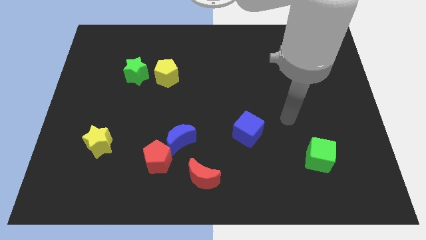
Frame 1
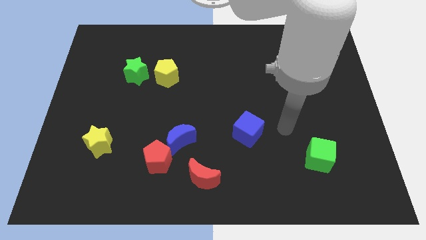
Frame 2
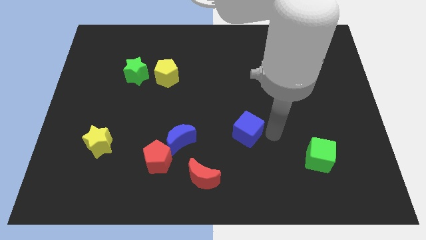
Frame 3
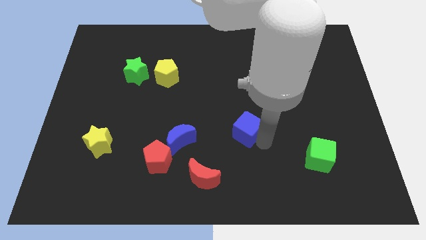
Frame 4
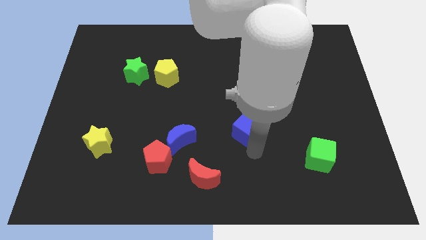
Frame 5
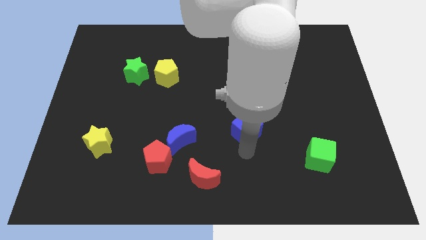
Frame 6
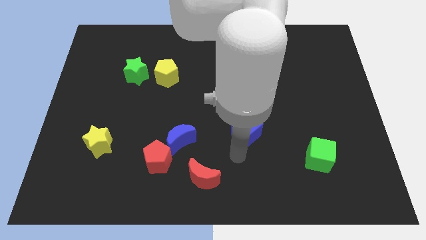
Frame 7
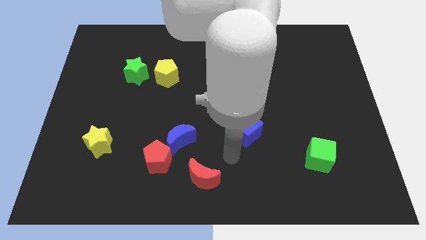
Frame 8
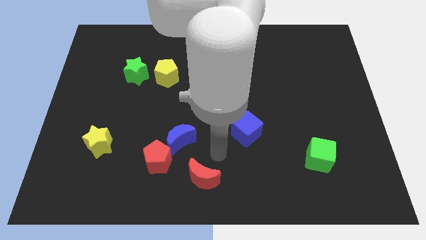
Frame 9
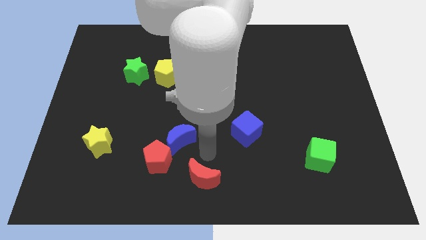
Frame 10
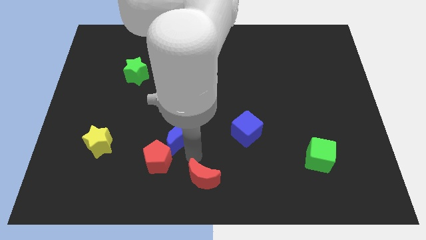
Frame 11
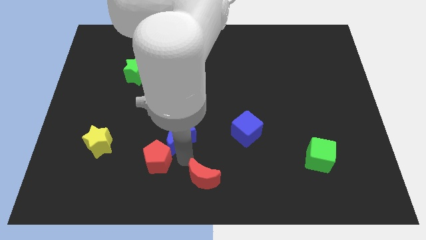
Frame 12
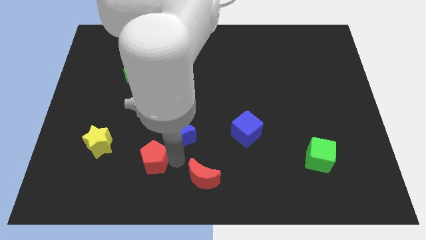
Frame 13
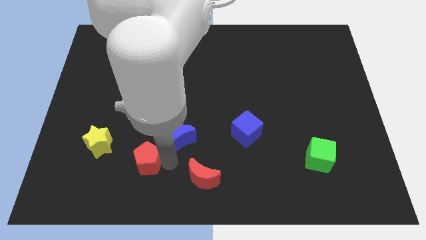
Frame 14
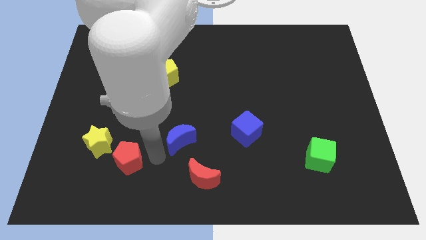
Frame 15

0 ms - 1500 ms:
pull the blue moon apart from the red pentagon

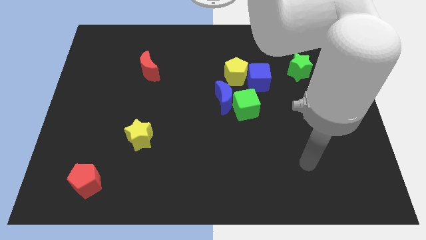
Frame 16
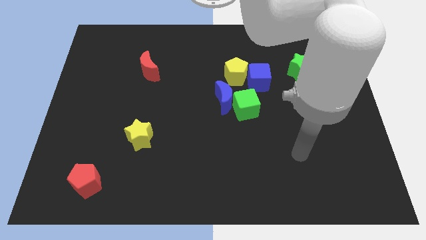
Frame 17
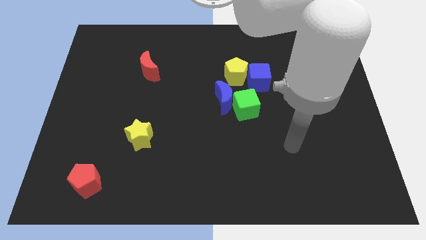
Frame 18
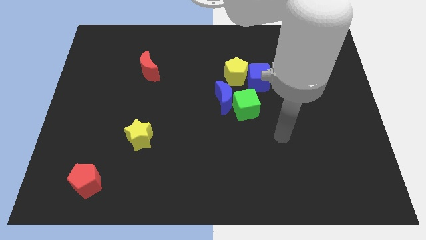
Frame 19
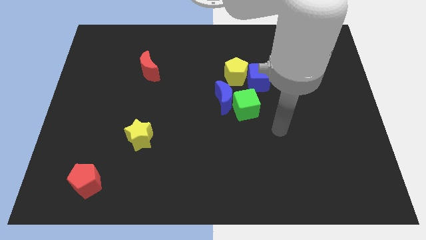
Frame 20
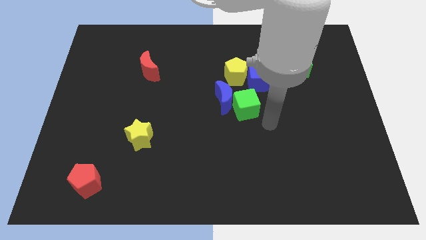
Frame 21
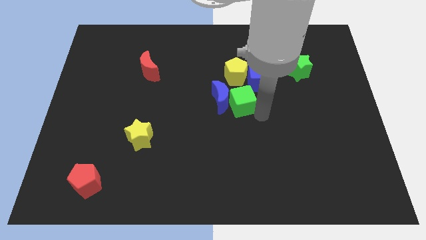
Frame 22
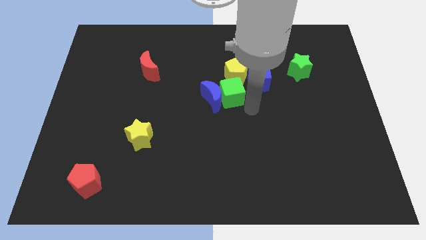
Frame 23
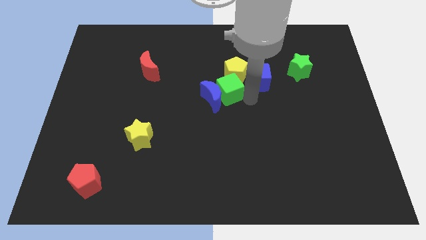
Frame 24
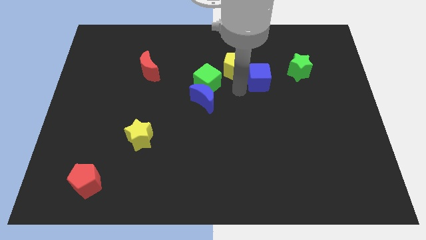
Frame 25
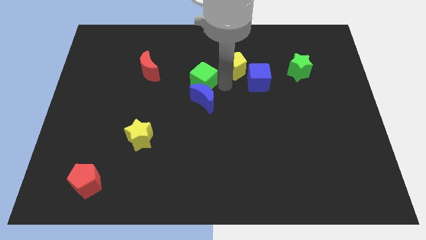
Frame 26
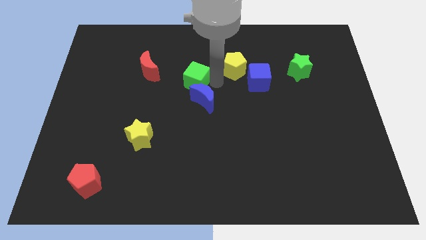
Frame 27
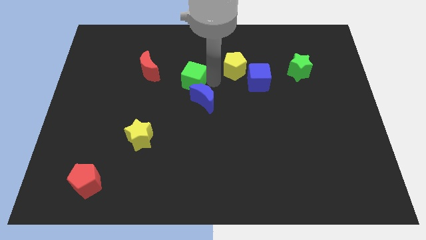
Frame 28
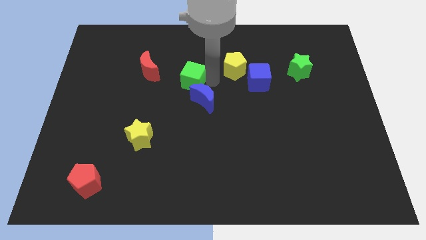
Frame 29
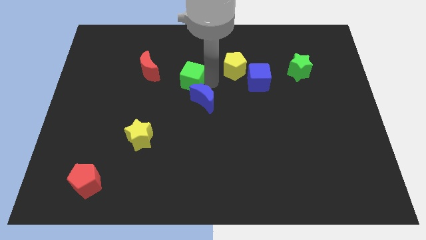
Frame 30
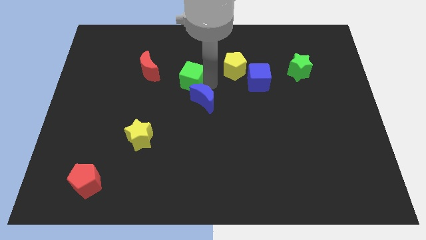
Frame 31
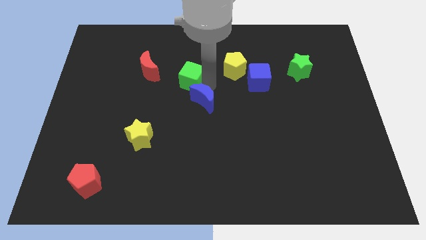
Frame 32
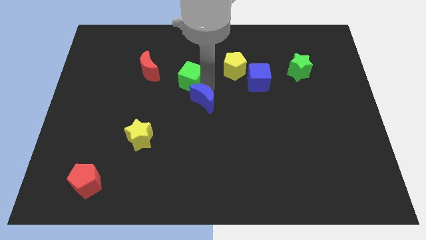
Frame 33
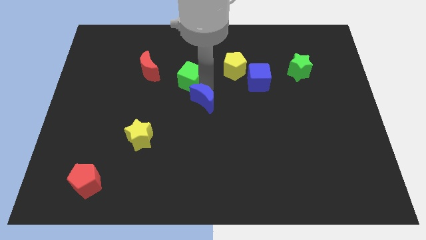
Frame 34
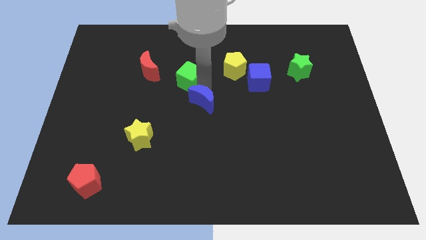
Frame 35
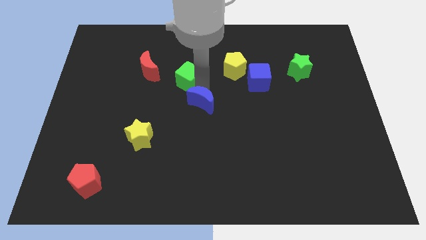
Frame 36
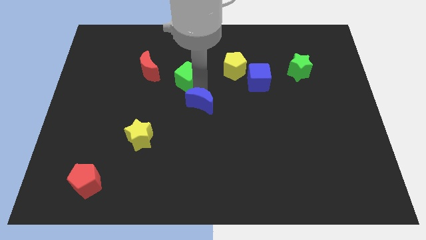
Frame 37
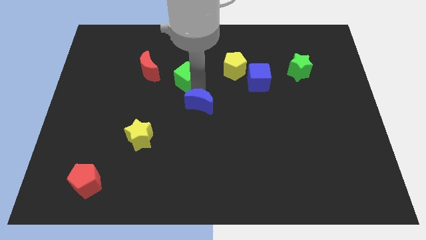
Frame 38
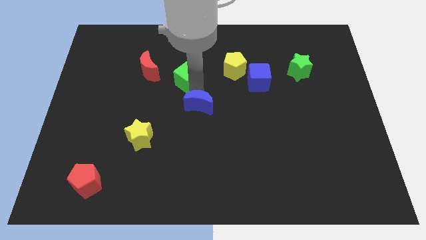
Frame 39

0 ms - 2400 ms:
pull the blue moon apart from the green cube and yellow pentagon

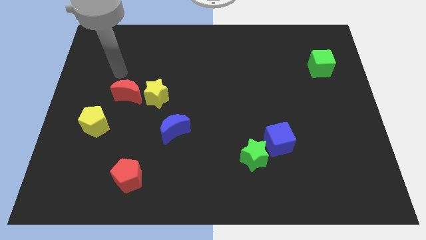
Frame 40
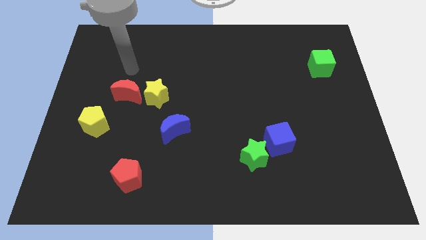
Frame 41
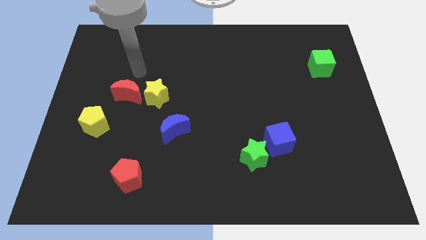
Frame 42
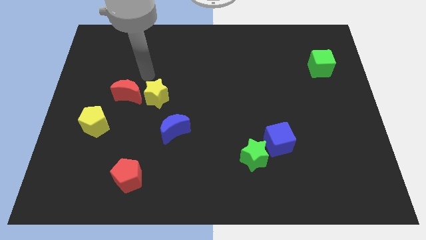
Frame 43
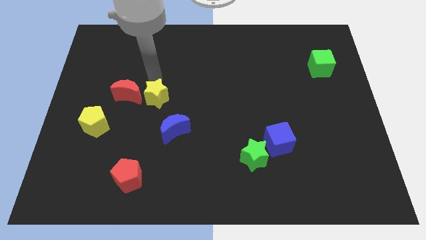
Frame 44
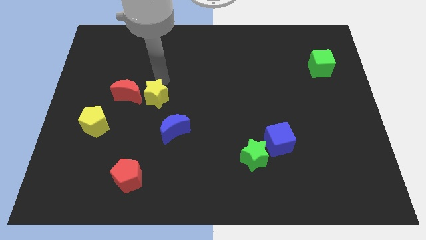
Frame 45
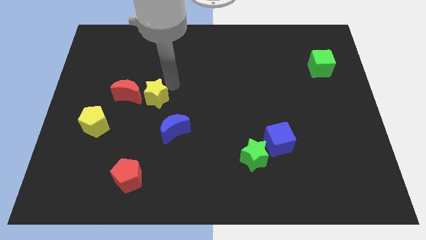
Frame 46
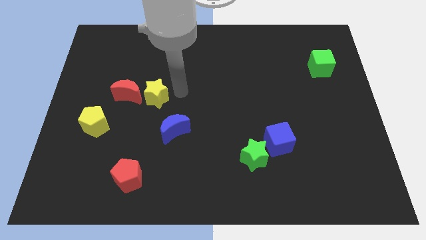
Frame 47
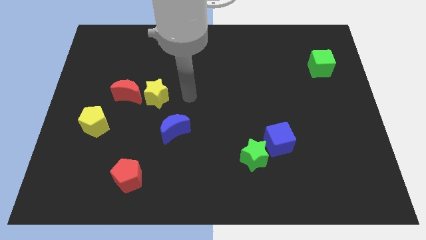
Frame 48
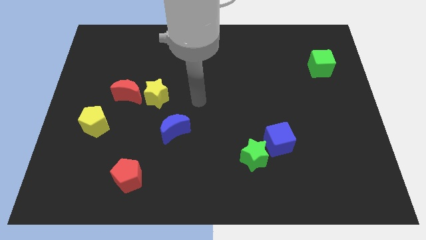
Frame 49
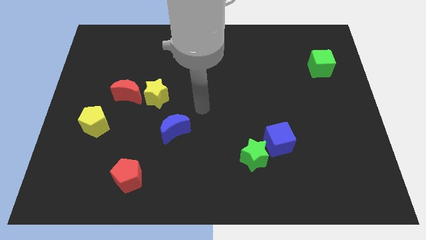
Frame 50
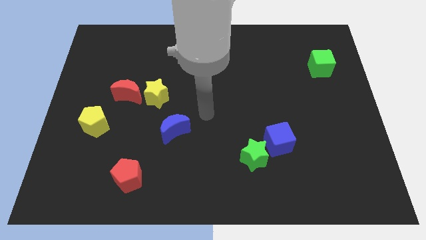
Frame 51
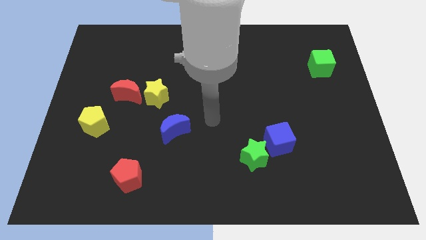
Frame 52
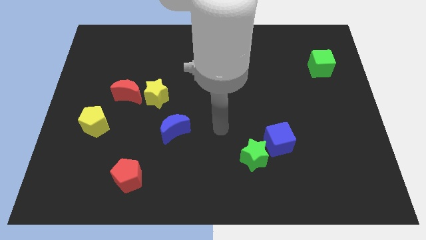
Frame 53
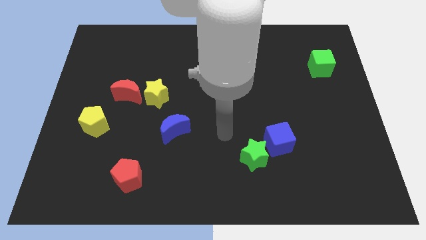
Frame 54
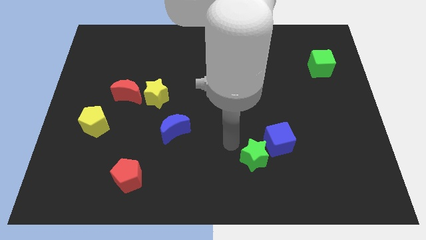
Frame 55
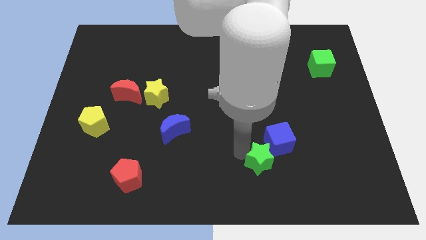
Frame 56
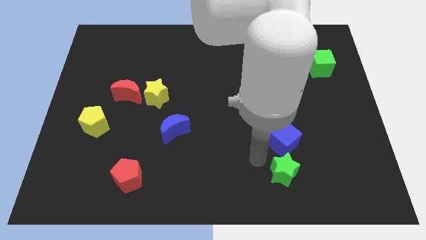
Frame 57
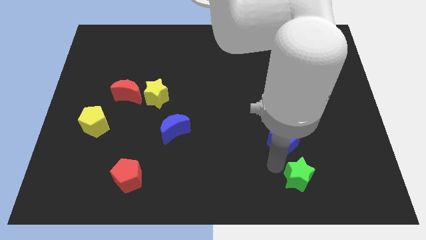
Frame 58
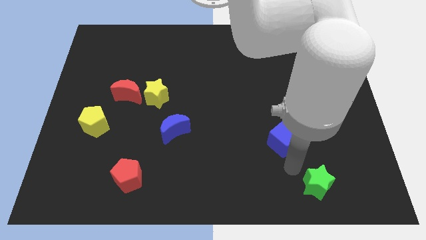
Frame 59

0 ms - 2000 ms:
pull the blue cube apart from the green star

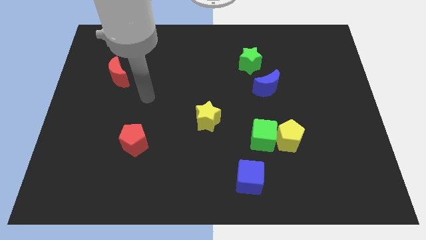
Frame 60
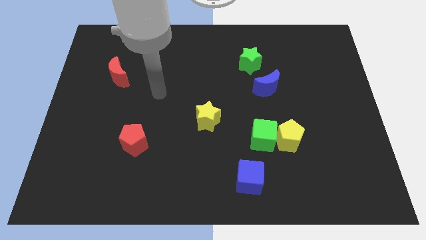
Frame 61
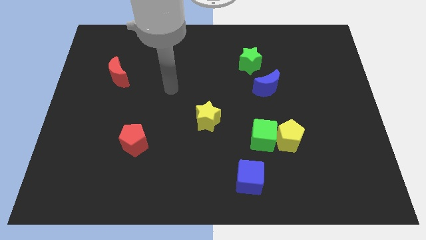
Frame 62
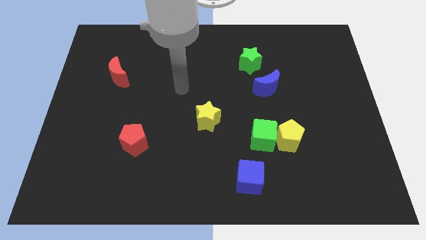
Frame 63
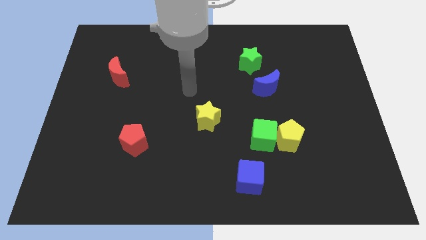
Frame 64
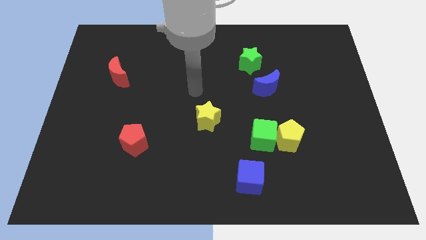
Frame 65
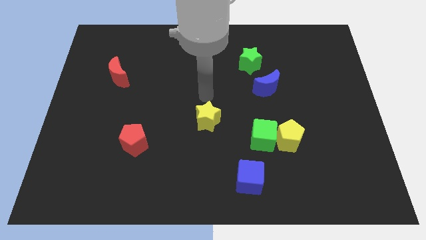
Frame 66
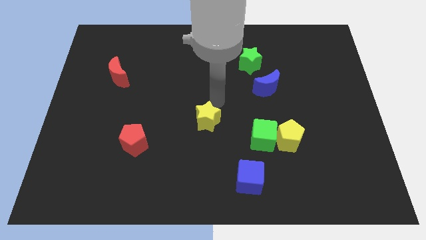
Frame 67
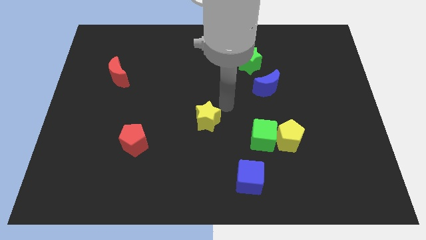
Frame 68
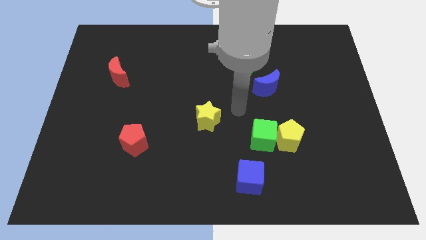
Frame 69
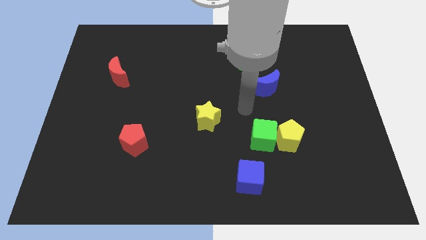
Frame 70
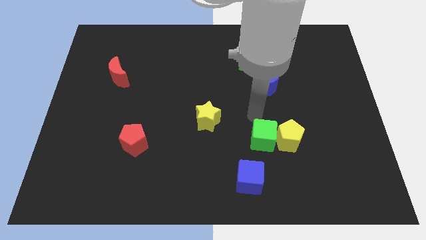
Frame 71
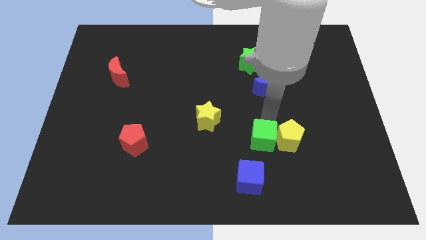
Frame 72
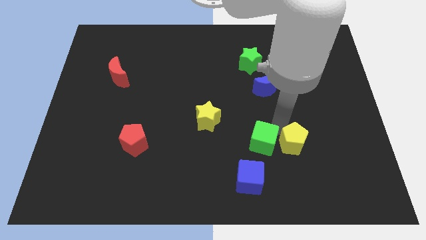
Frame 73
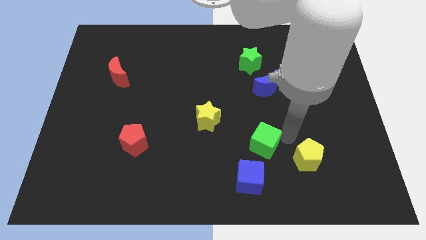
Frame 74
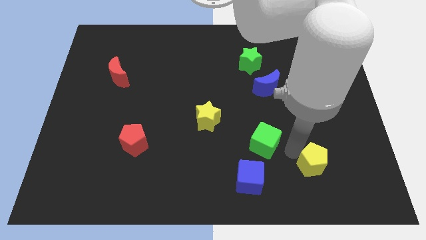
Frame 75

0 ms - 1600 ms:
move the green cube away from the yellow pentagon

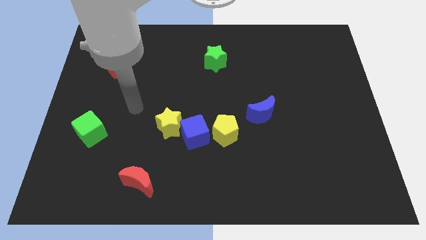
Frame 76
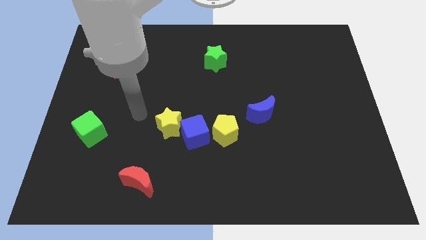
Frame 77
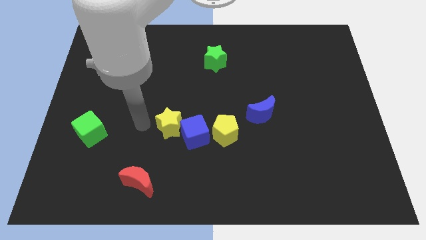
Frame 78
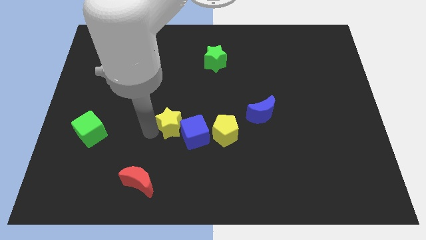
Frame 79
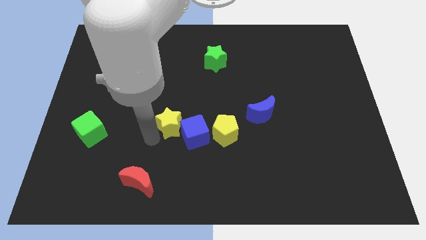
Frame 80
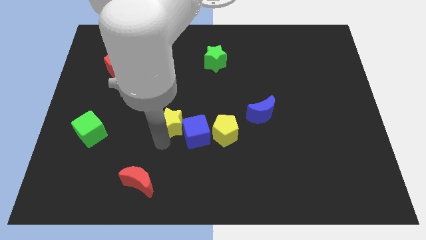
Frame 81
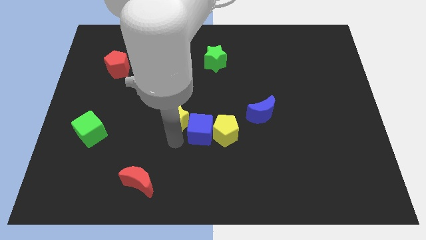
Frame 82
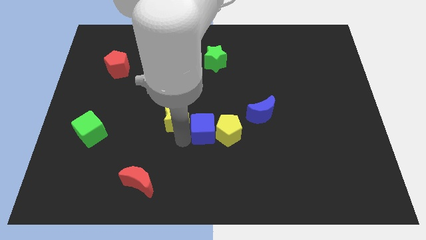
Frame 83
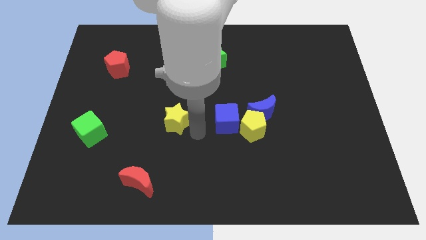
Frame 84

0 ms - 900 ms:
pull the yellow star apart from the blue cube

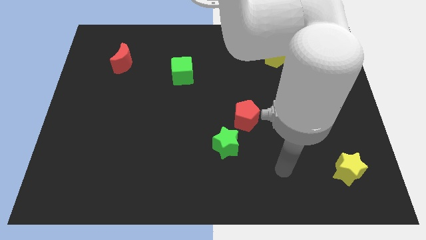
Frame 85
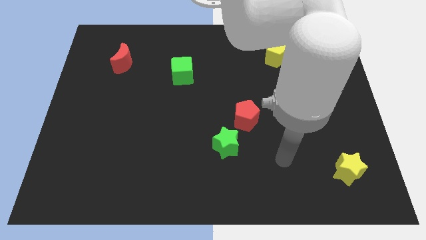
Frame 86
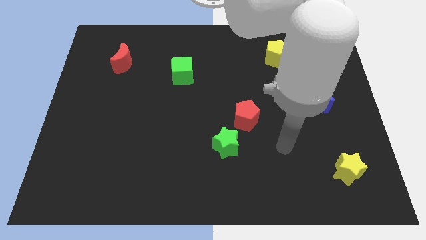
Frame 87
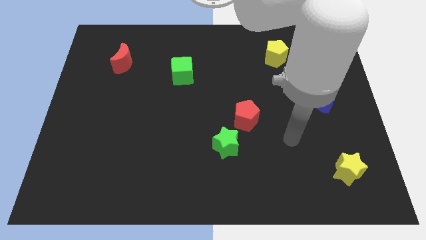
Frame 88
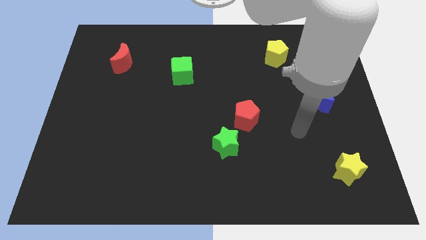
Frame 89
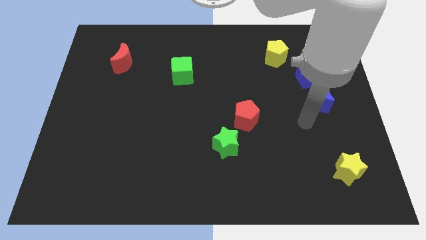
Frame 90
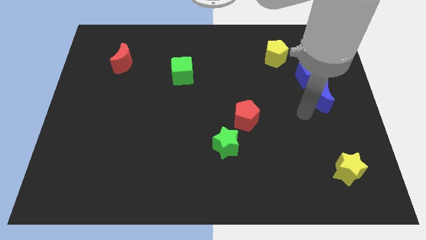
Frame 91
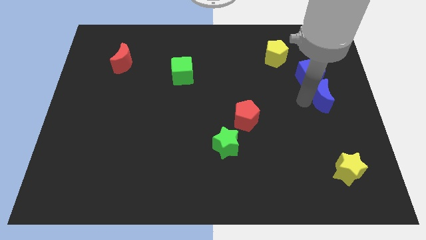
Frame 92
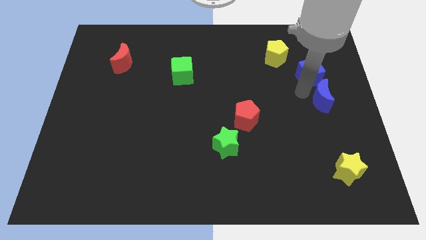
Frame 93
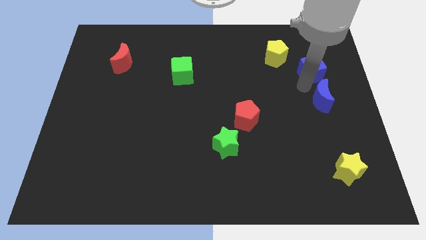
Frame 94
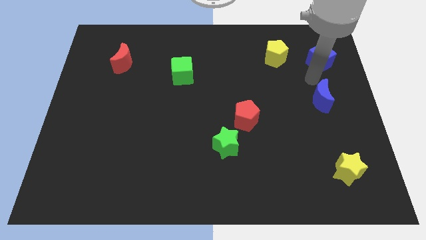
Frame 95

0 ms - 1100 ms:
move the blue moon away from the blue cube
